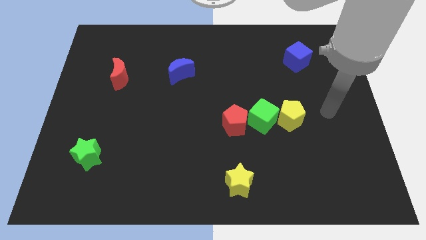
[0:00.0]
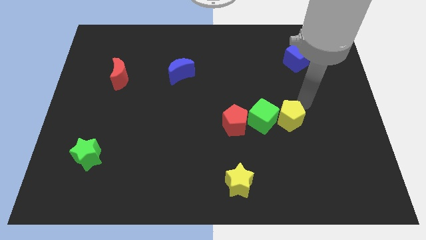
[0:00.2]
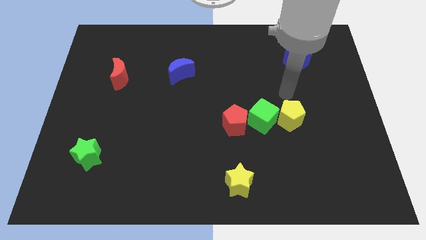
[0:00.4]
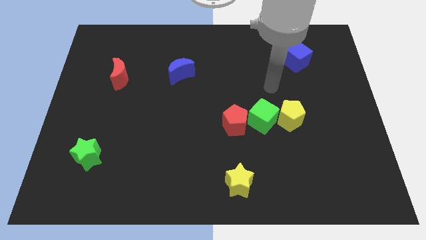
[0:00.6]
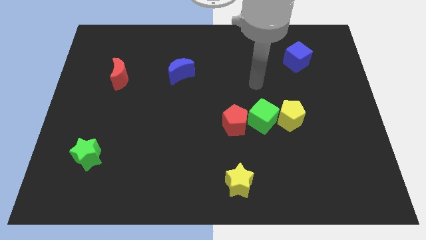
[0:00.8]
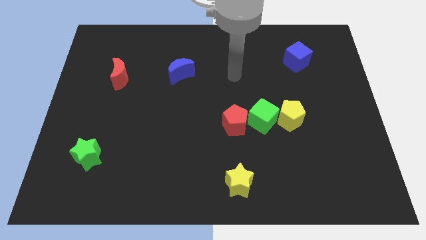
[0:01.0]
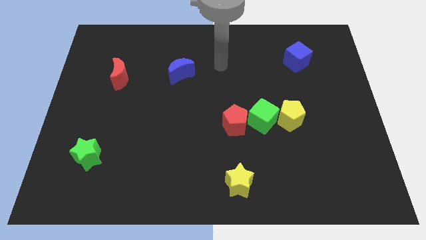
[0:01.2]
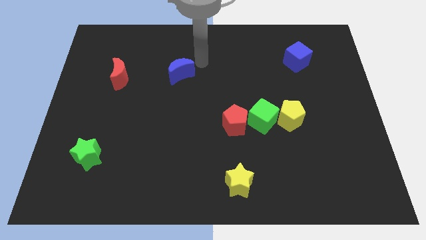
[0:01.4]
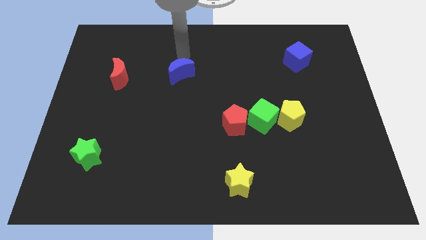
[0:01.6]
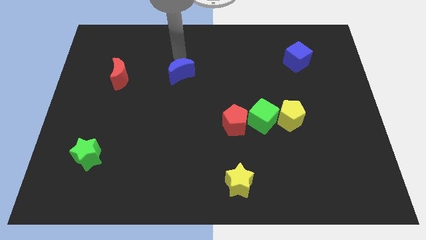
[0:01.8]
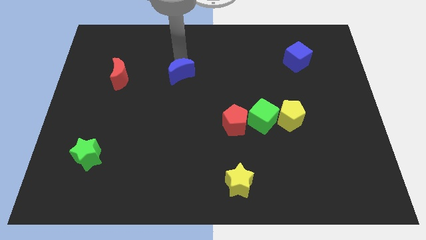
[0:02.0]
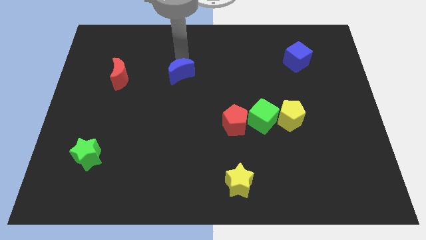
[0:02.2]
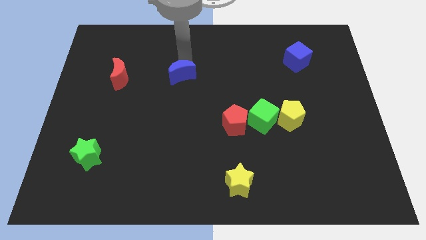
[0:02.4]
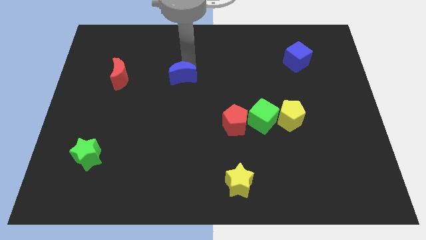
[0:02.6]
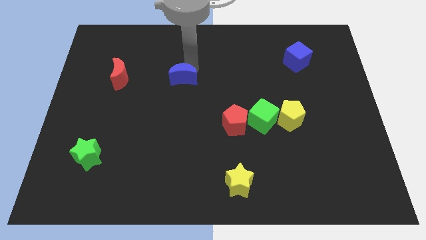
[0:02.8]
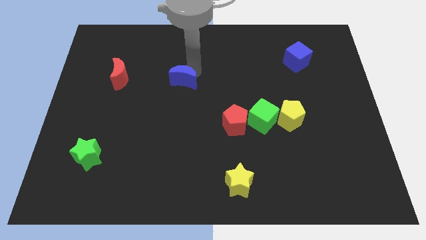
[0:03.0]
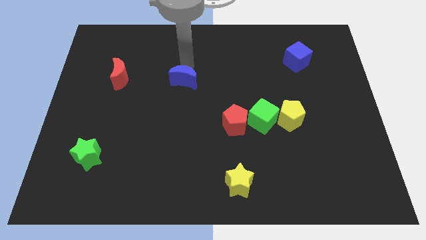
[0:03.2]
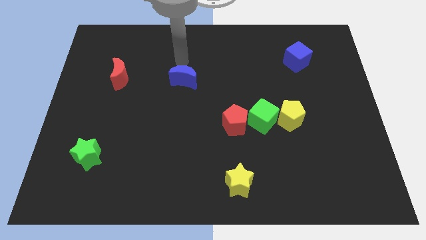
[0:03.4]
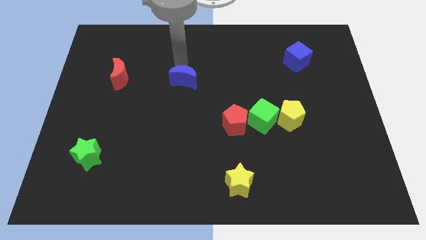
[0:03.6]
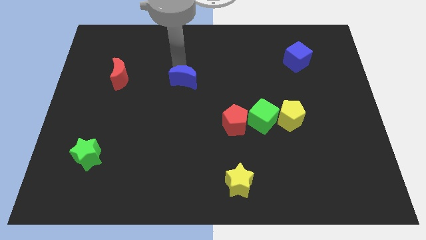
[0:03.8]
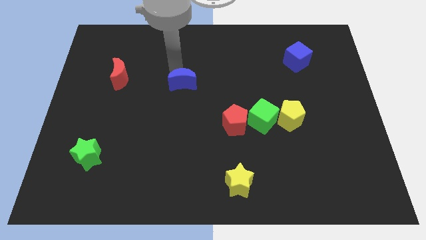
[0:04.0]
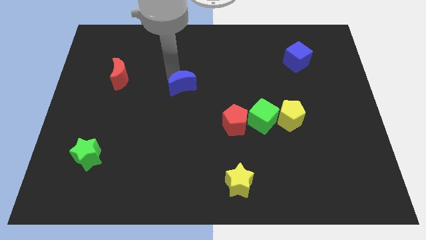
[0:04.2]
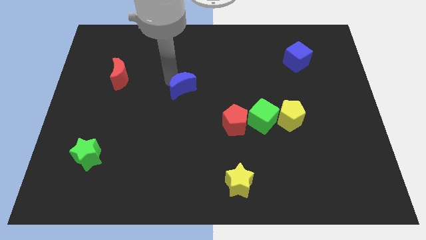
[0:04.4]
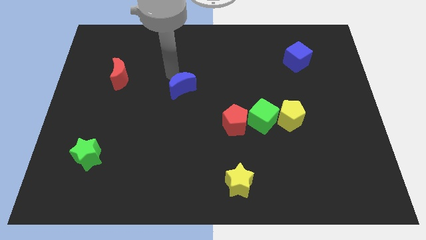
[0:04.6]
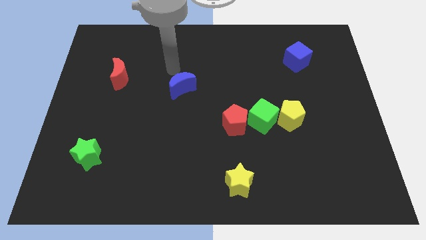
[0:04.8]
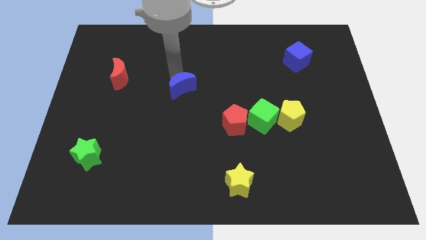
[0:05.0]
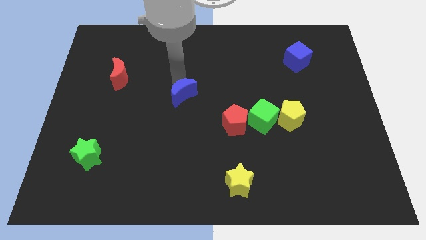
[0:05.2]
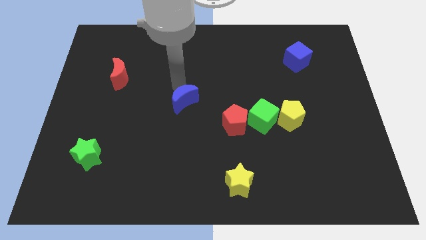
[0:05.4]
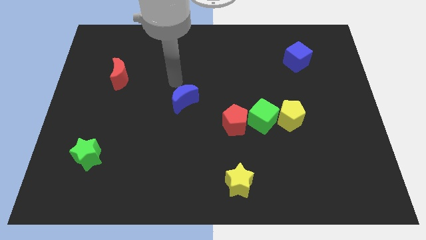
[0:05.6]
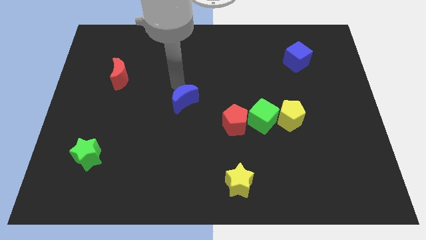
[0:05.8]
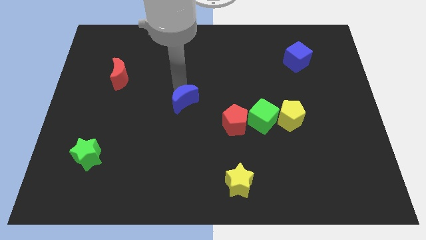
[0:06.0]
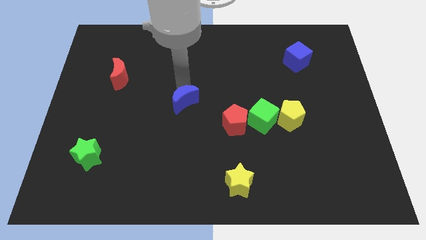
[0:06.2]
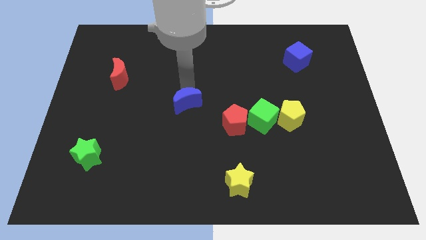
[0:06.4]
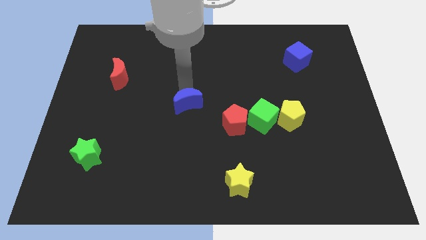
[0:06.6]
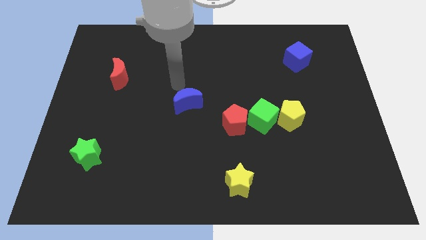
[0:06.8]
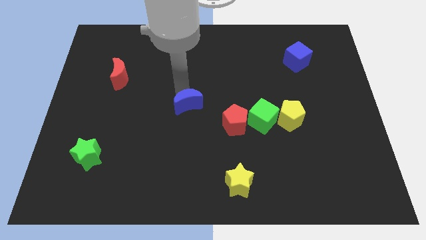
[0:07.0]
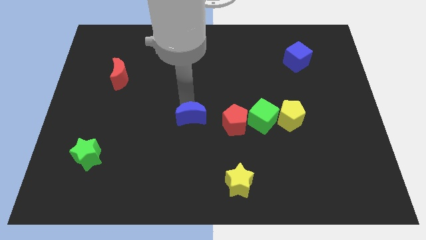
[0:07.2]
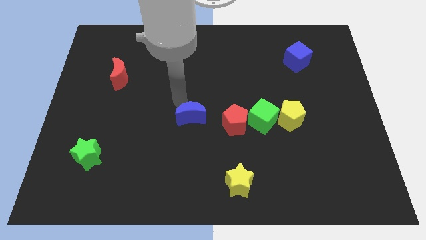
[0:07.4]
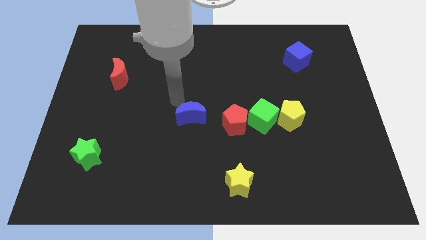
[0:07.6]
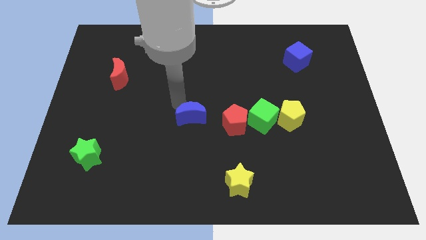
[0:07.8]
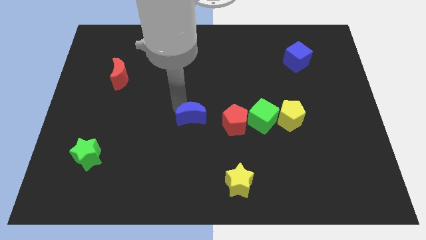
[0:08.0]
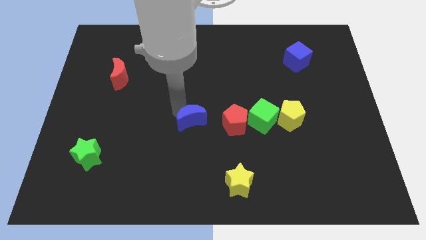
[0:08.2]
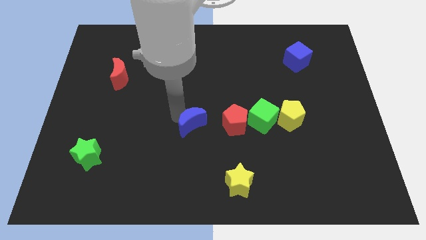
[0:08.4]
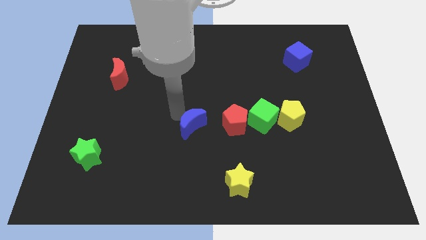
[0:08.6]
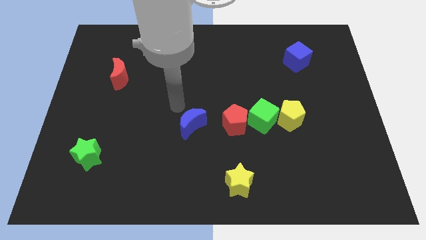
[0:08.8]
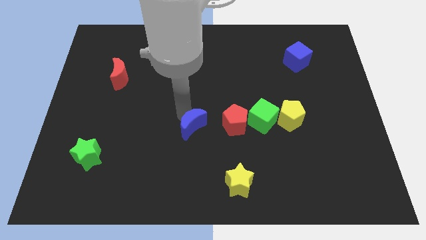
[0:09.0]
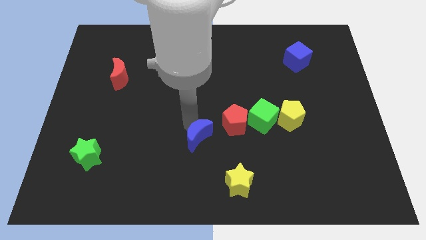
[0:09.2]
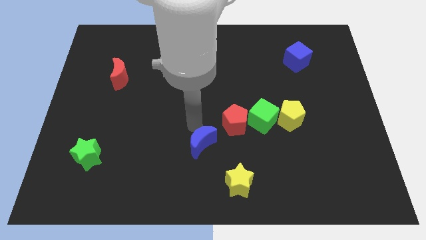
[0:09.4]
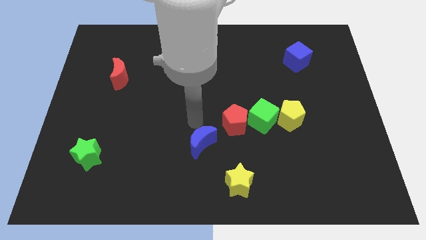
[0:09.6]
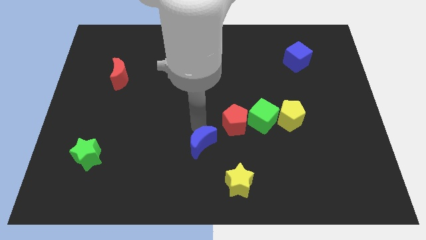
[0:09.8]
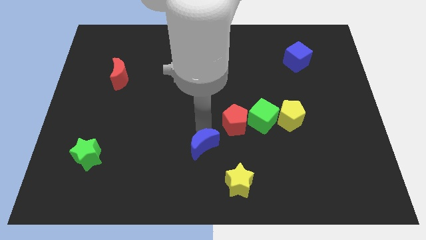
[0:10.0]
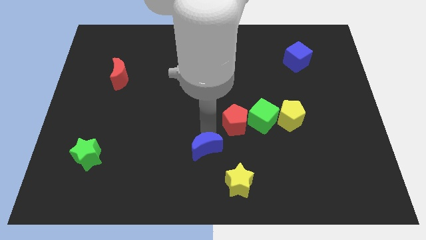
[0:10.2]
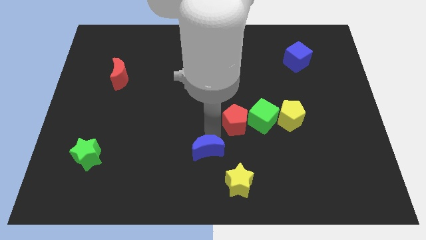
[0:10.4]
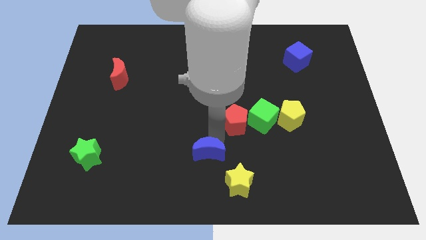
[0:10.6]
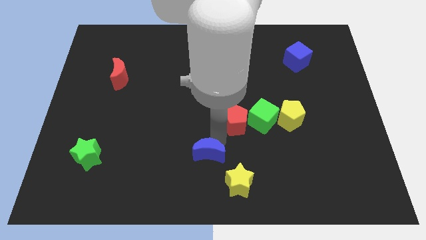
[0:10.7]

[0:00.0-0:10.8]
slide the blue moon to the bottom side

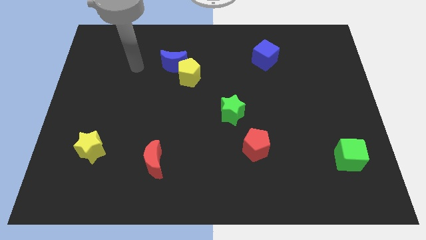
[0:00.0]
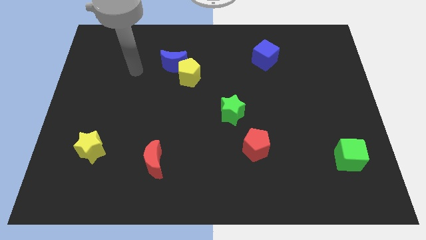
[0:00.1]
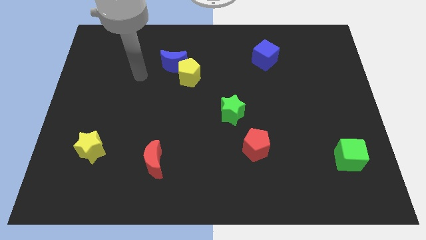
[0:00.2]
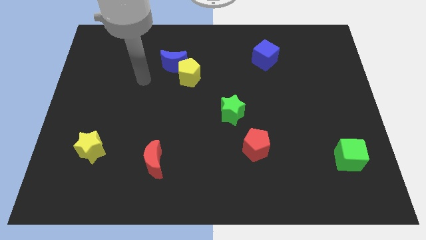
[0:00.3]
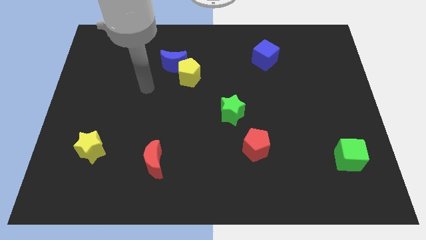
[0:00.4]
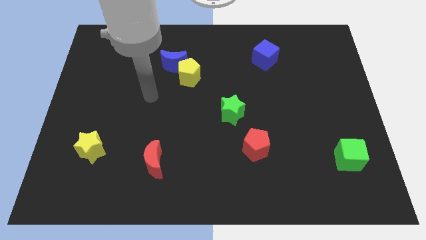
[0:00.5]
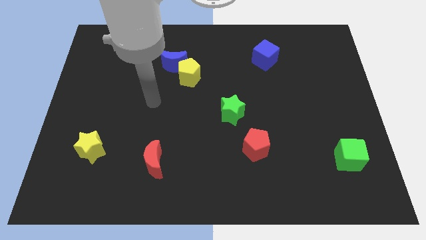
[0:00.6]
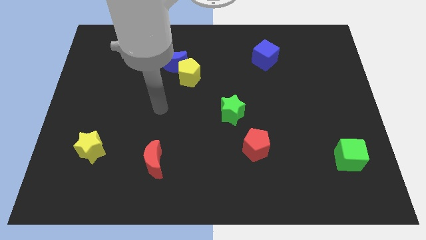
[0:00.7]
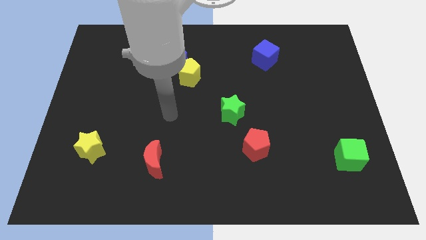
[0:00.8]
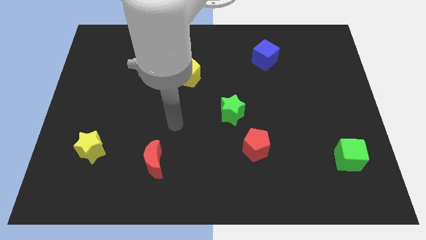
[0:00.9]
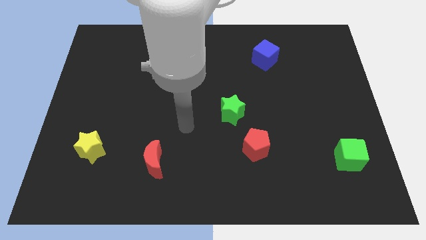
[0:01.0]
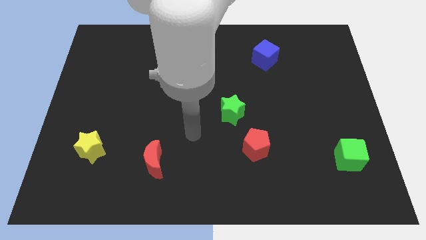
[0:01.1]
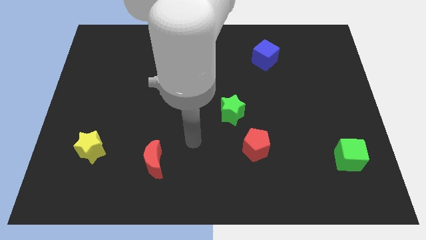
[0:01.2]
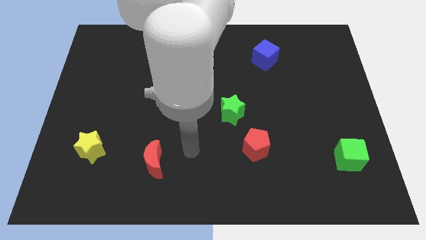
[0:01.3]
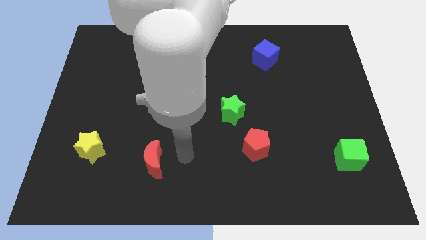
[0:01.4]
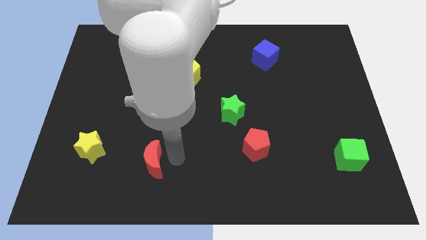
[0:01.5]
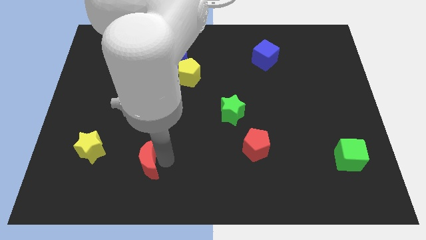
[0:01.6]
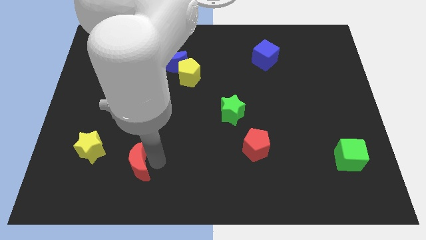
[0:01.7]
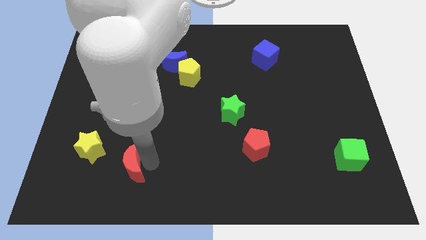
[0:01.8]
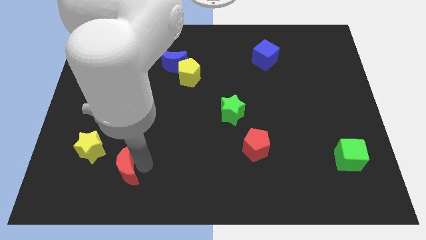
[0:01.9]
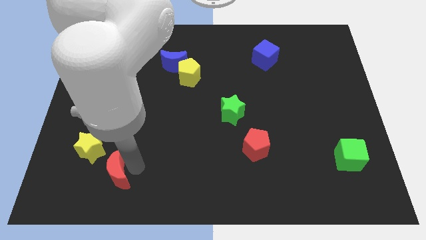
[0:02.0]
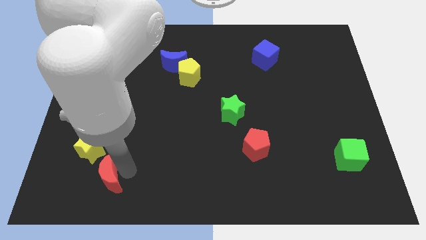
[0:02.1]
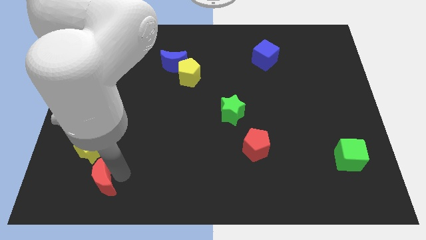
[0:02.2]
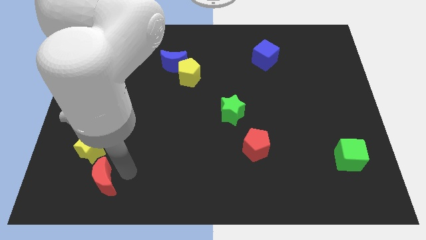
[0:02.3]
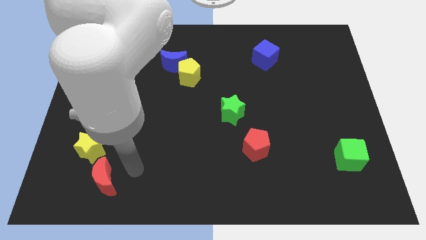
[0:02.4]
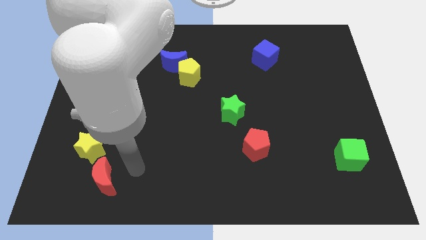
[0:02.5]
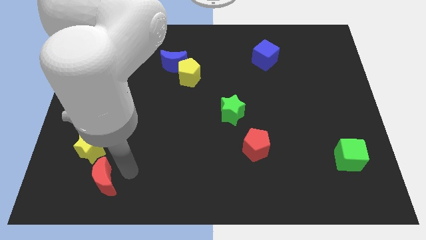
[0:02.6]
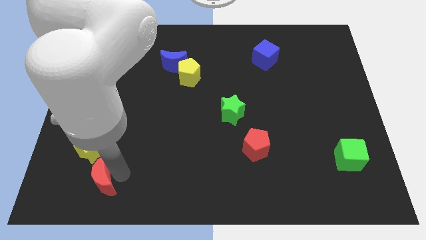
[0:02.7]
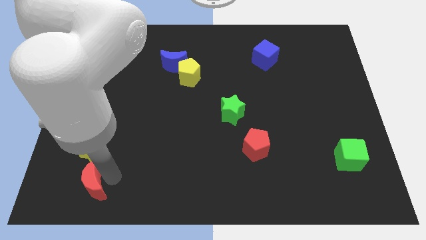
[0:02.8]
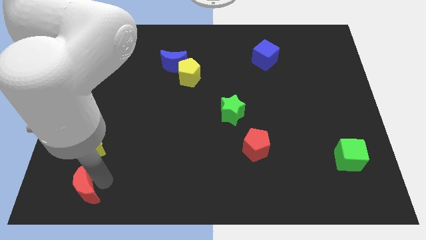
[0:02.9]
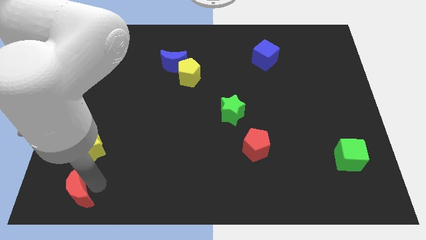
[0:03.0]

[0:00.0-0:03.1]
push the red moon to the lower left corner
